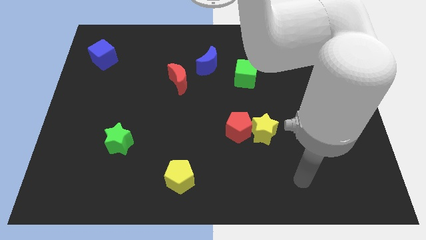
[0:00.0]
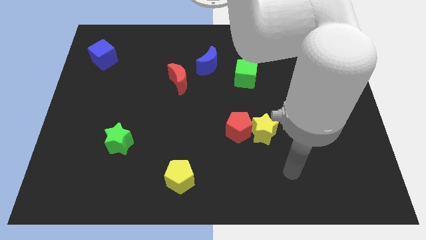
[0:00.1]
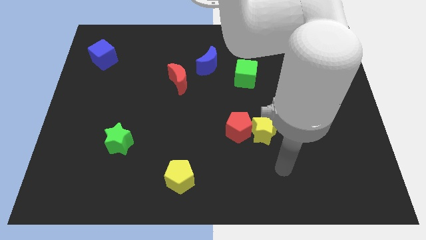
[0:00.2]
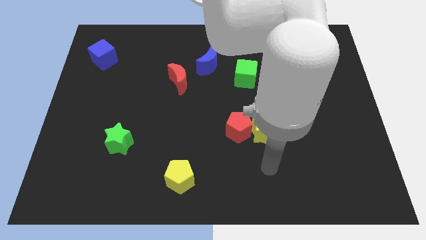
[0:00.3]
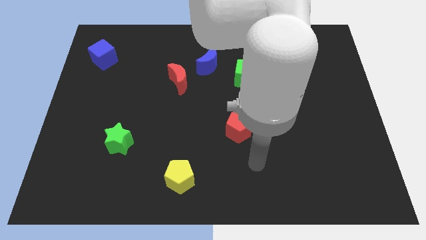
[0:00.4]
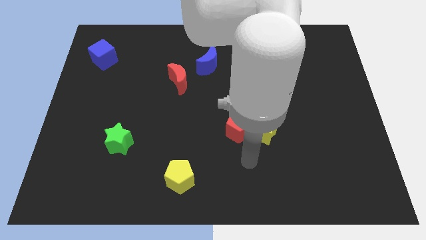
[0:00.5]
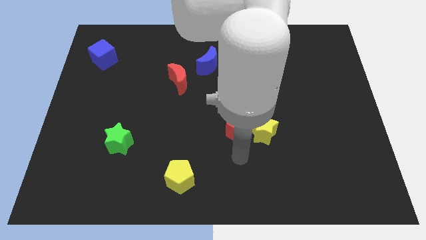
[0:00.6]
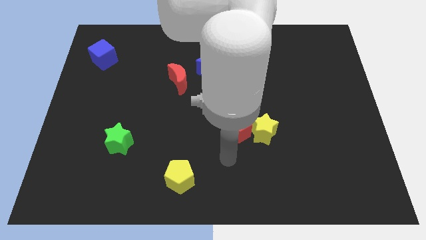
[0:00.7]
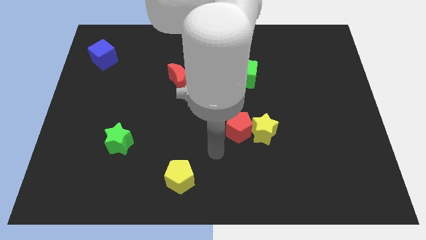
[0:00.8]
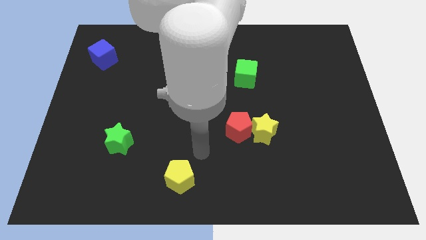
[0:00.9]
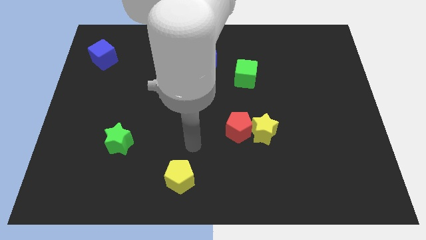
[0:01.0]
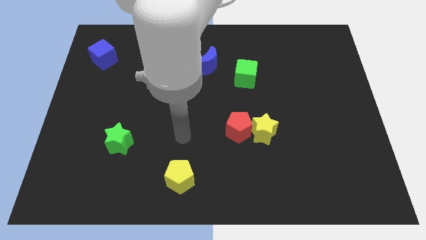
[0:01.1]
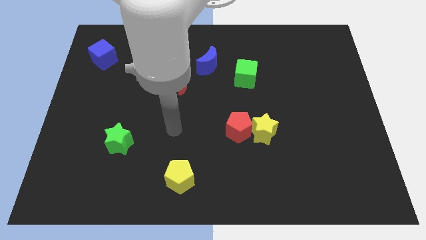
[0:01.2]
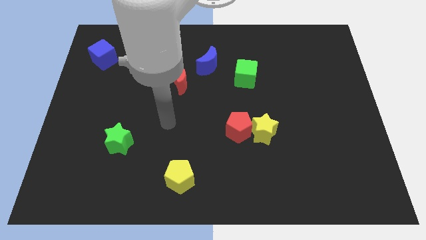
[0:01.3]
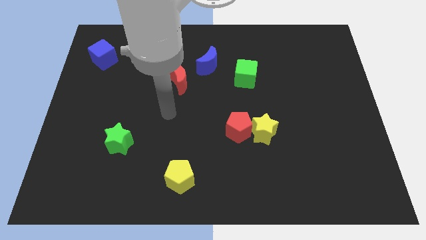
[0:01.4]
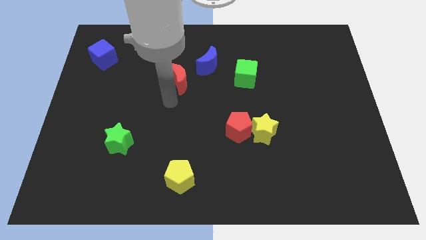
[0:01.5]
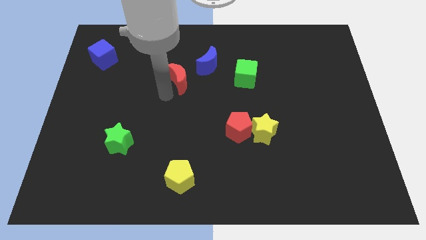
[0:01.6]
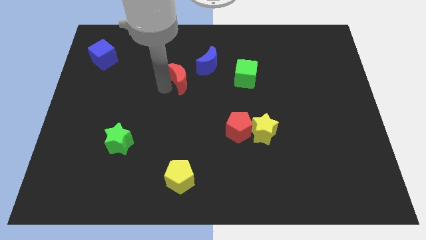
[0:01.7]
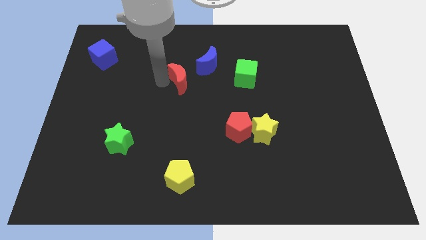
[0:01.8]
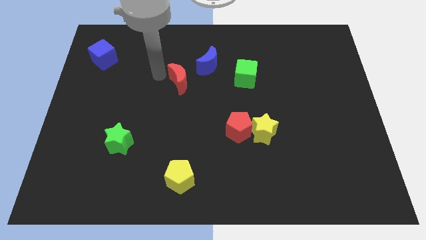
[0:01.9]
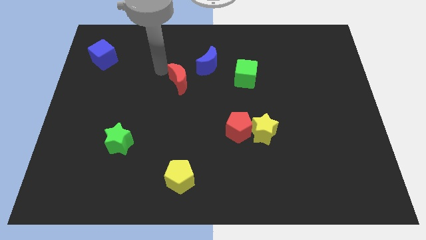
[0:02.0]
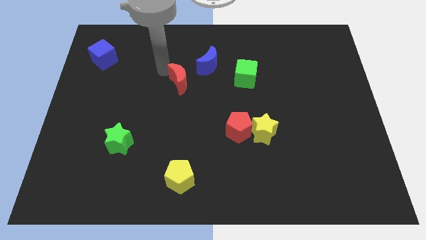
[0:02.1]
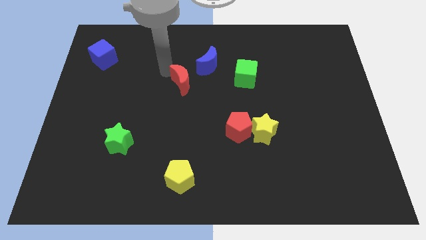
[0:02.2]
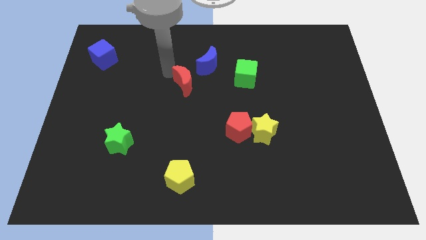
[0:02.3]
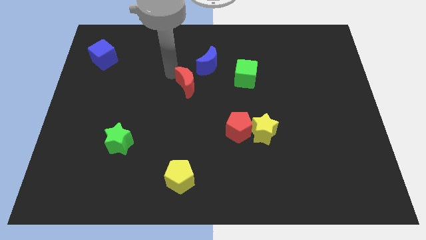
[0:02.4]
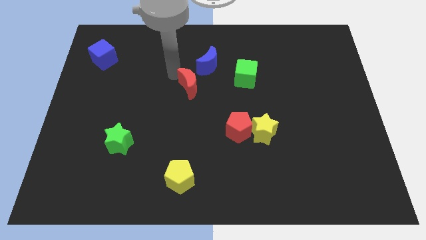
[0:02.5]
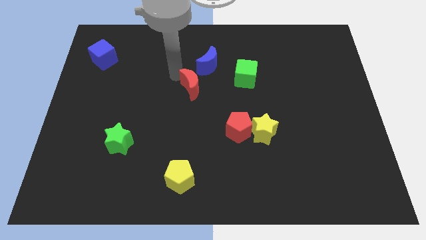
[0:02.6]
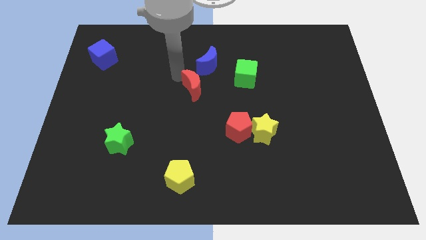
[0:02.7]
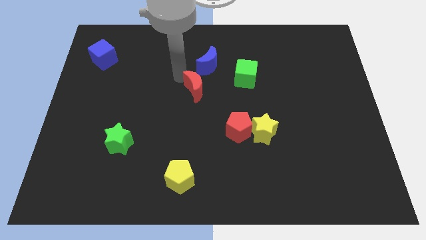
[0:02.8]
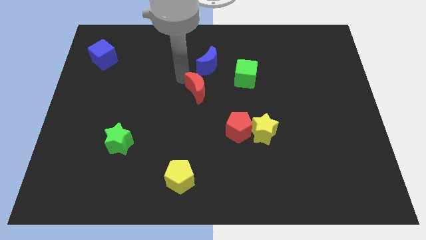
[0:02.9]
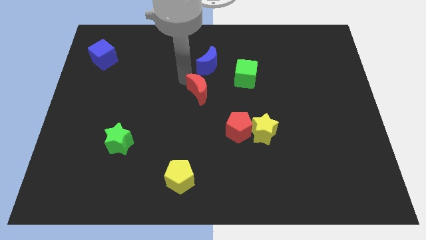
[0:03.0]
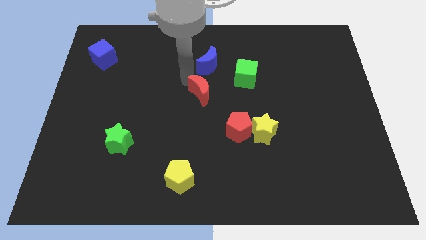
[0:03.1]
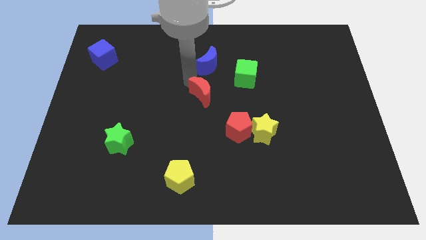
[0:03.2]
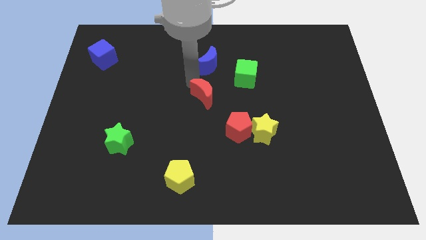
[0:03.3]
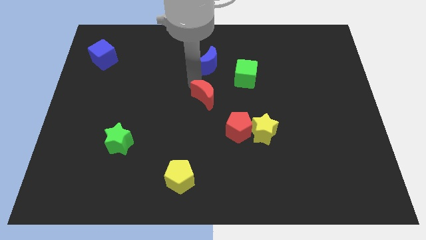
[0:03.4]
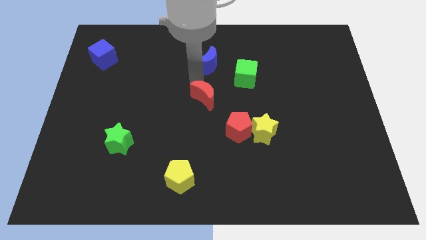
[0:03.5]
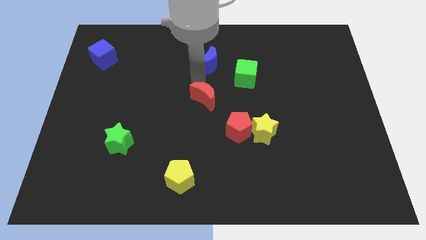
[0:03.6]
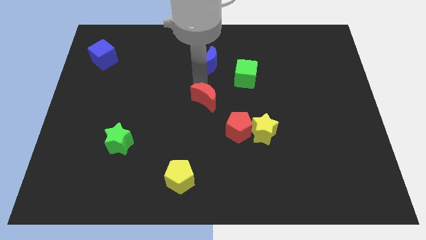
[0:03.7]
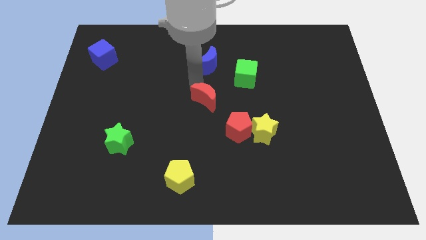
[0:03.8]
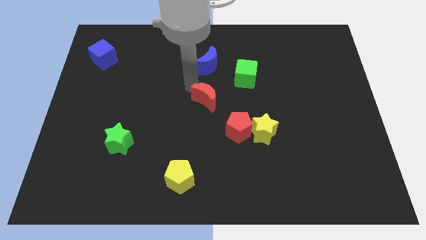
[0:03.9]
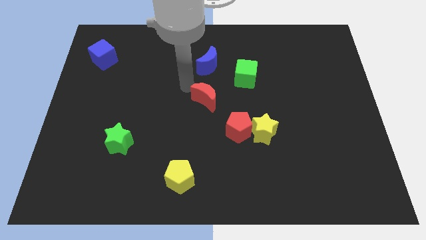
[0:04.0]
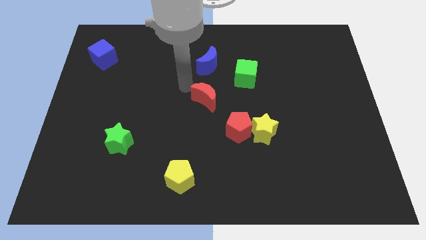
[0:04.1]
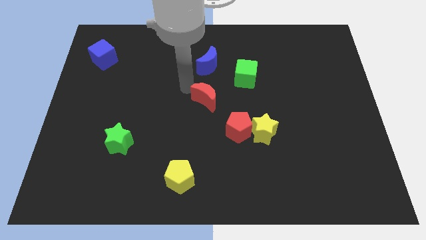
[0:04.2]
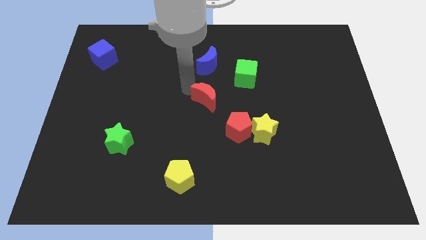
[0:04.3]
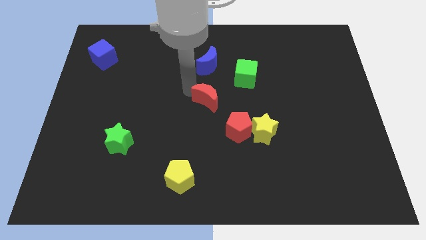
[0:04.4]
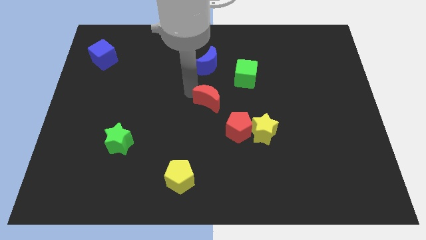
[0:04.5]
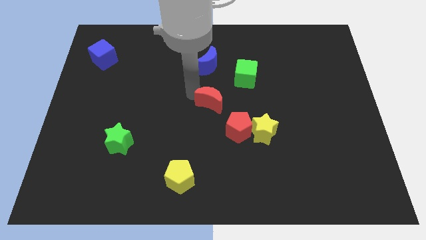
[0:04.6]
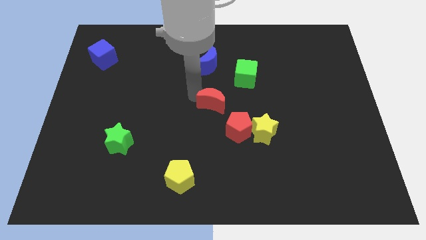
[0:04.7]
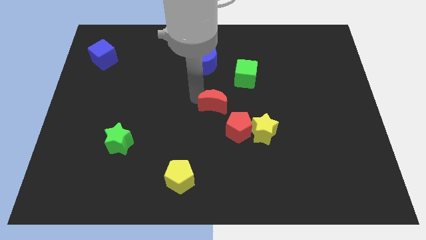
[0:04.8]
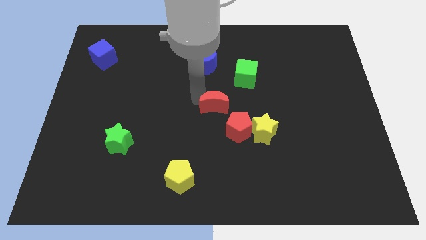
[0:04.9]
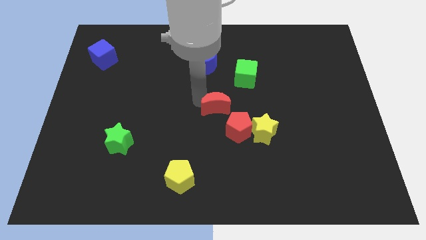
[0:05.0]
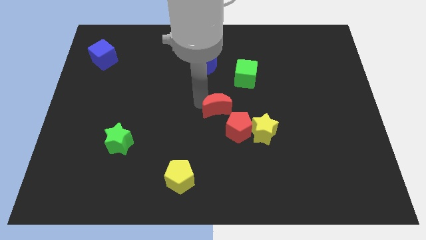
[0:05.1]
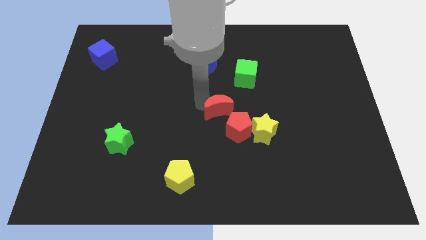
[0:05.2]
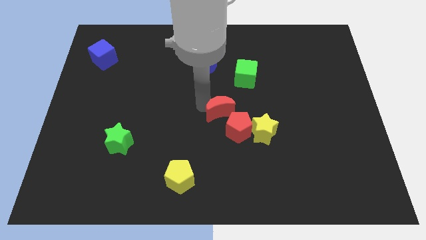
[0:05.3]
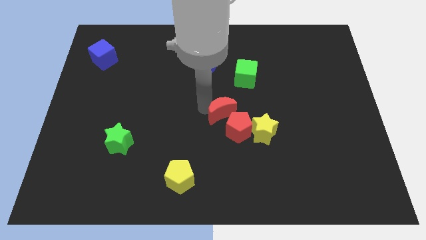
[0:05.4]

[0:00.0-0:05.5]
slide the red moon towards the red pentagon

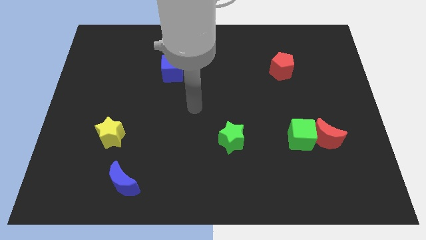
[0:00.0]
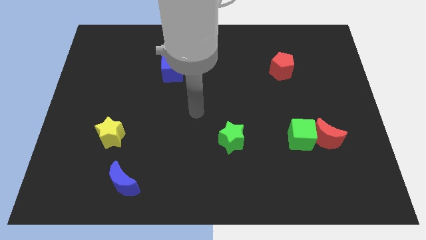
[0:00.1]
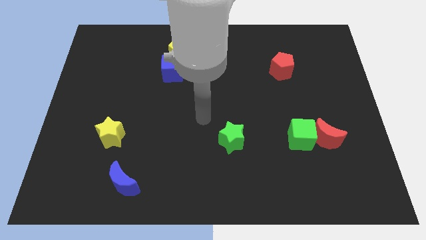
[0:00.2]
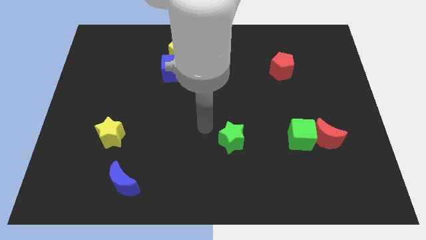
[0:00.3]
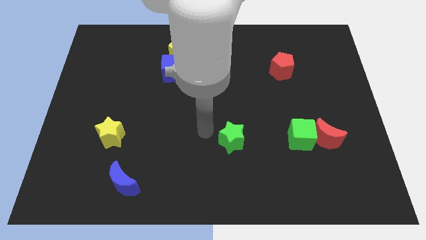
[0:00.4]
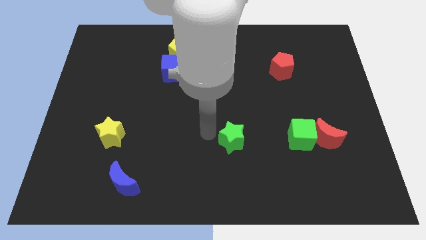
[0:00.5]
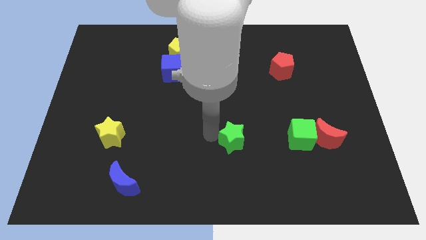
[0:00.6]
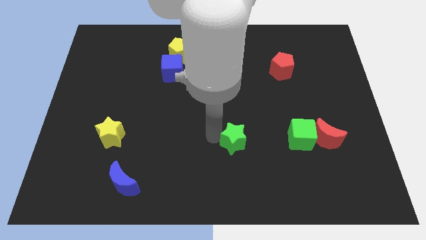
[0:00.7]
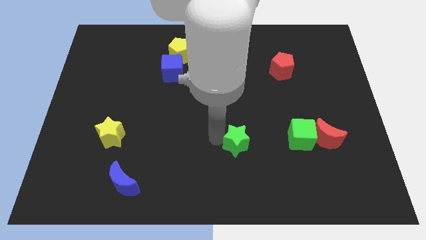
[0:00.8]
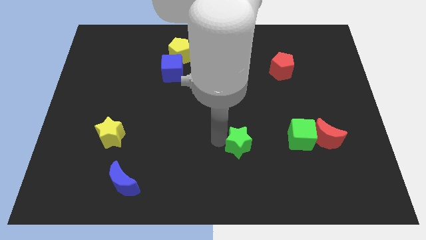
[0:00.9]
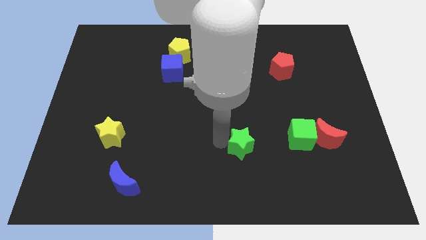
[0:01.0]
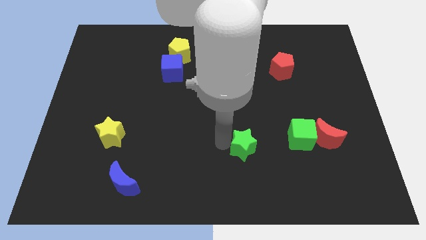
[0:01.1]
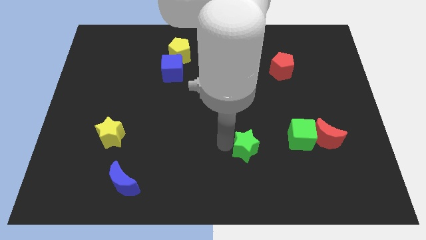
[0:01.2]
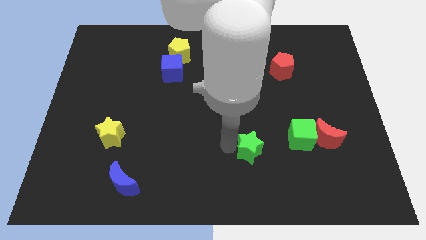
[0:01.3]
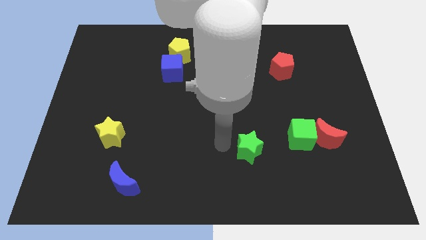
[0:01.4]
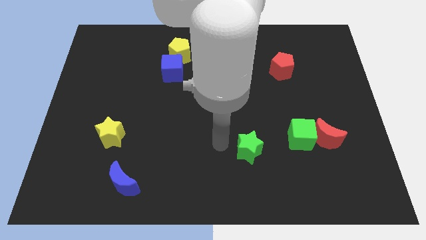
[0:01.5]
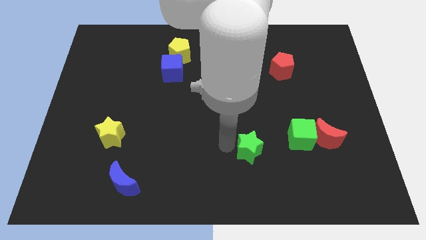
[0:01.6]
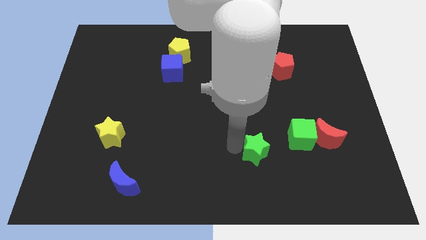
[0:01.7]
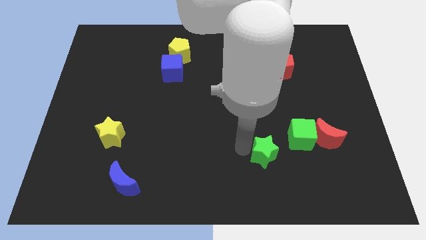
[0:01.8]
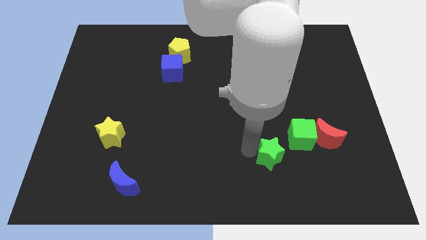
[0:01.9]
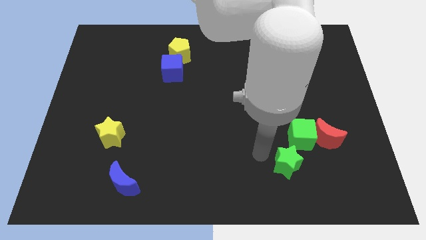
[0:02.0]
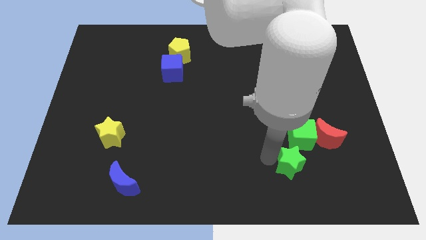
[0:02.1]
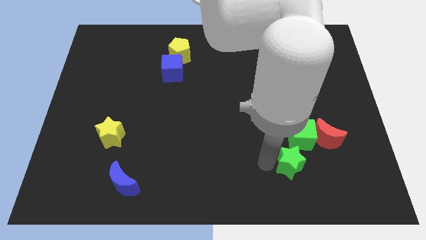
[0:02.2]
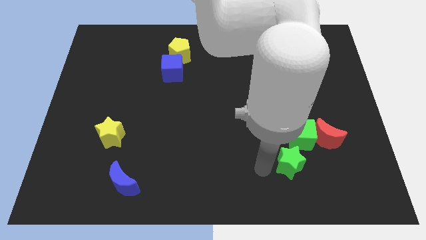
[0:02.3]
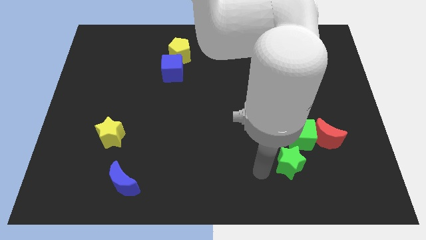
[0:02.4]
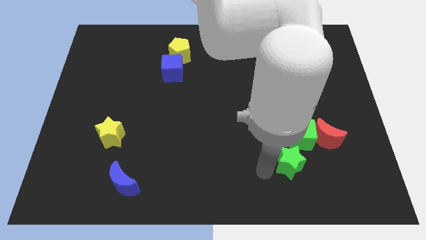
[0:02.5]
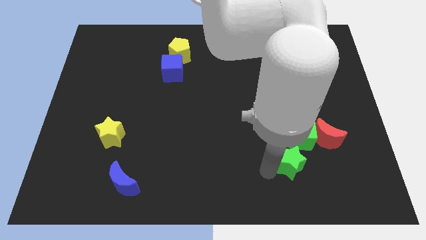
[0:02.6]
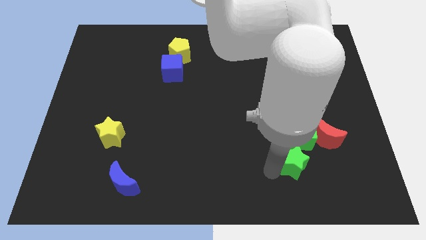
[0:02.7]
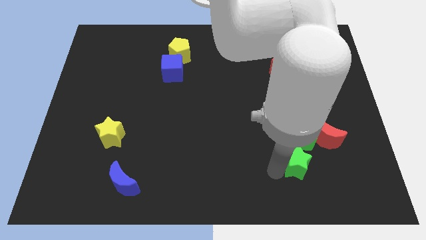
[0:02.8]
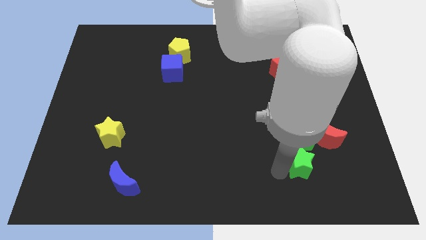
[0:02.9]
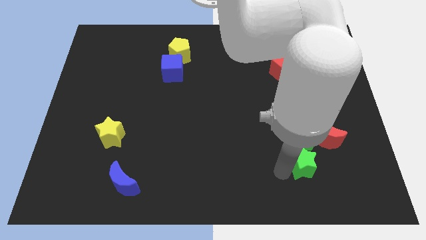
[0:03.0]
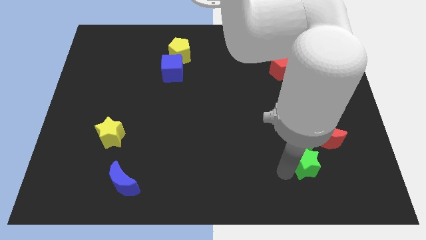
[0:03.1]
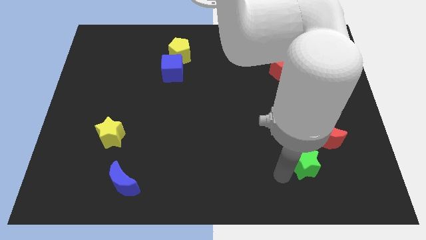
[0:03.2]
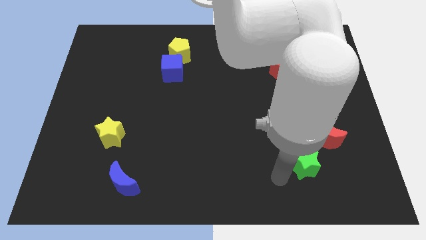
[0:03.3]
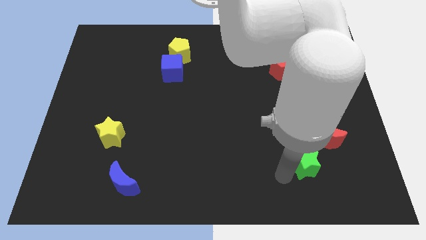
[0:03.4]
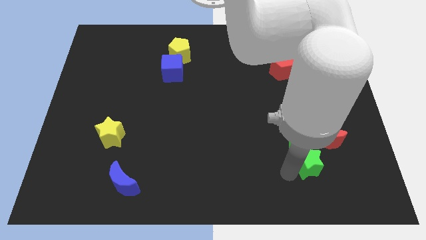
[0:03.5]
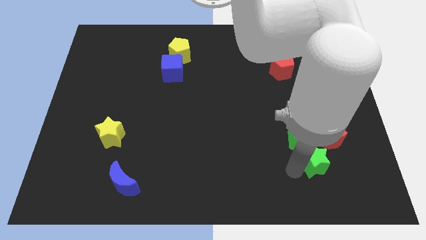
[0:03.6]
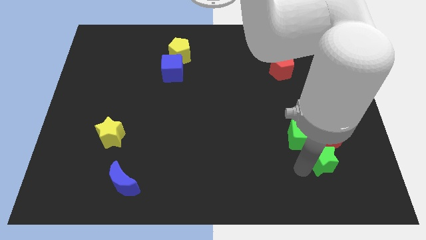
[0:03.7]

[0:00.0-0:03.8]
push the green star next to the red moon
